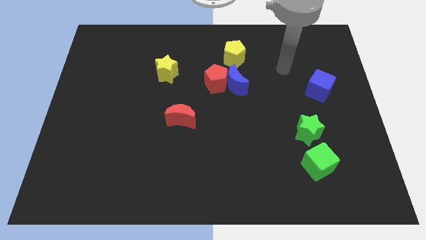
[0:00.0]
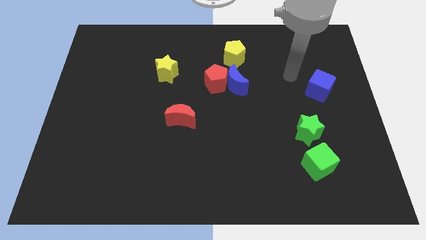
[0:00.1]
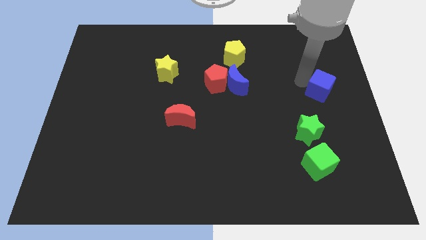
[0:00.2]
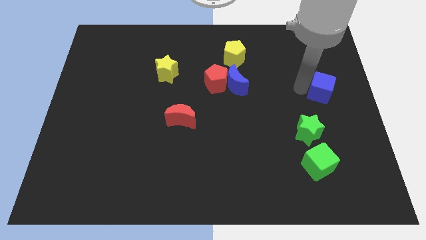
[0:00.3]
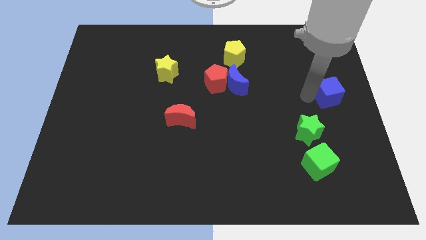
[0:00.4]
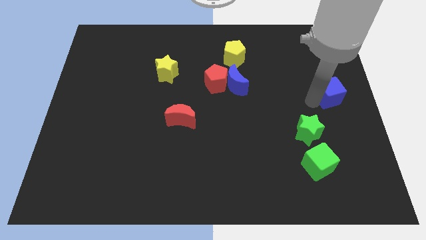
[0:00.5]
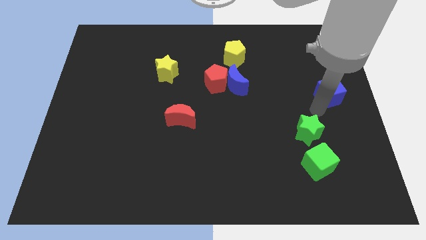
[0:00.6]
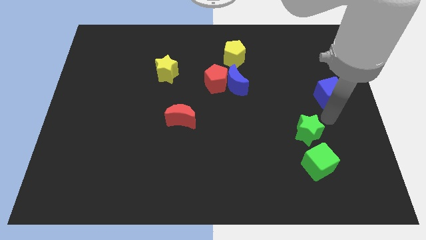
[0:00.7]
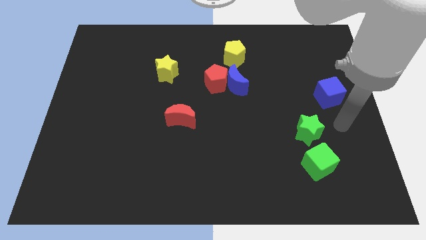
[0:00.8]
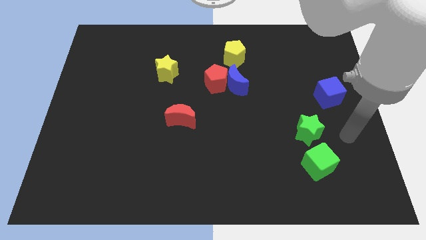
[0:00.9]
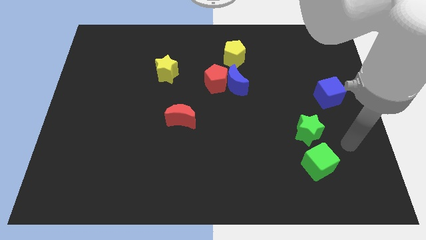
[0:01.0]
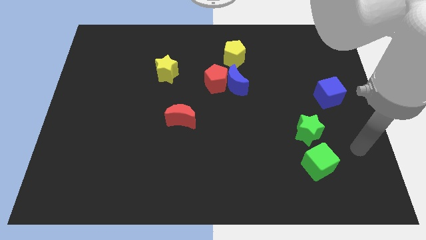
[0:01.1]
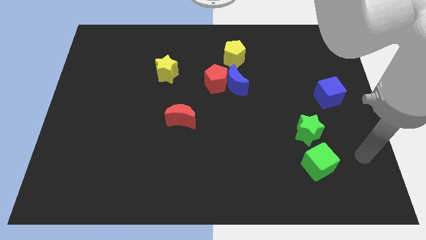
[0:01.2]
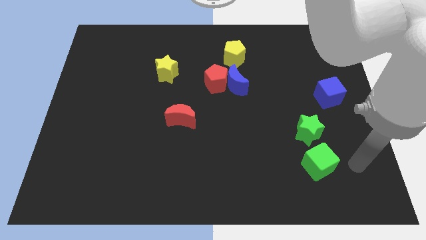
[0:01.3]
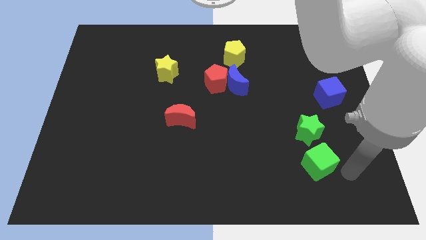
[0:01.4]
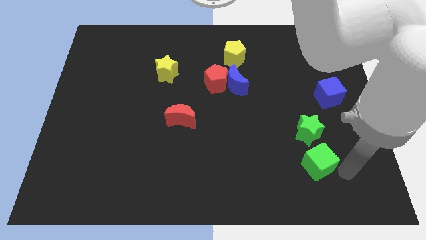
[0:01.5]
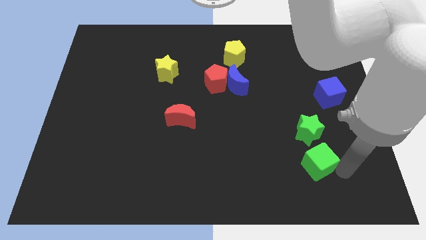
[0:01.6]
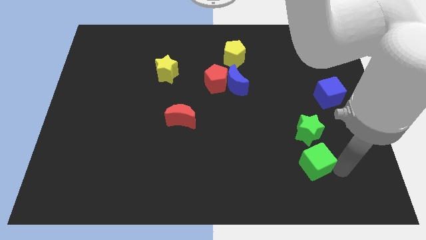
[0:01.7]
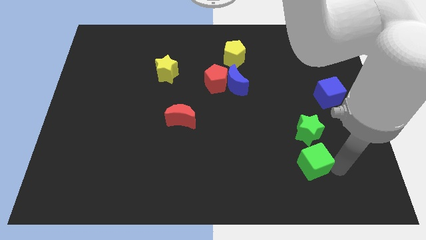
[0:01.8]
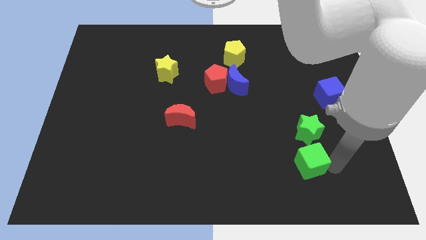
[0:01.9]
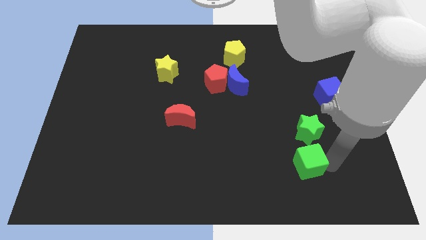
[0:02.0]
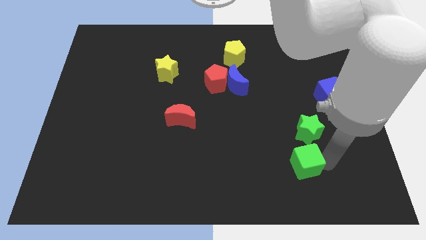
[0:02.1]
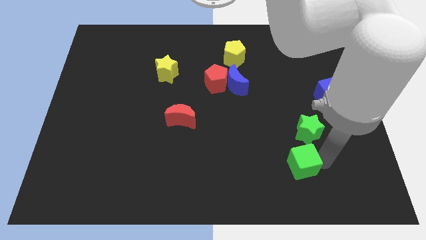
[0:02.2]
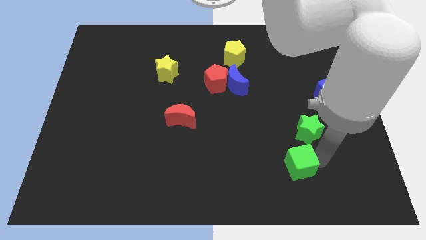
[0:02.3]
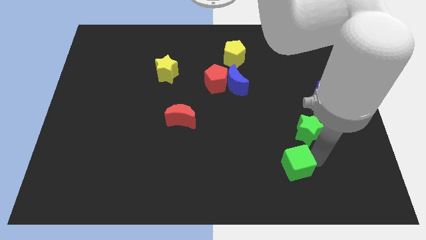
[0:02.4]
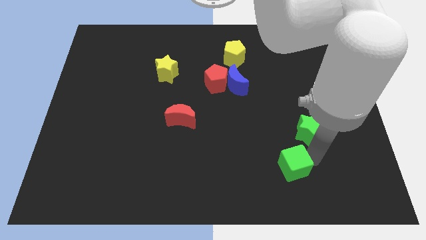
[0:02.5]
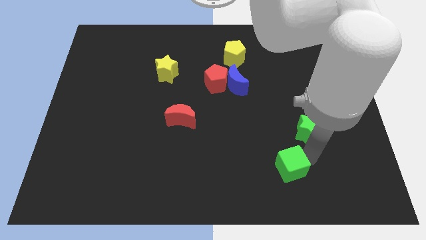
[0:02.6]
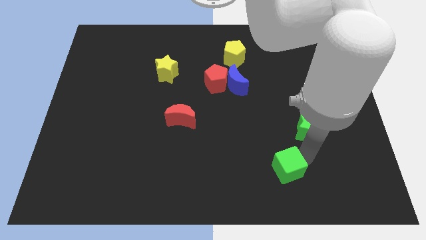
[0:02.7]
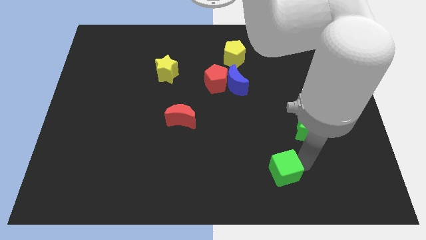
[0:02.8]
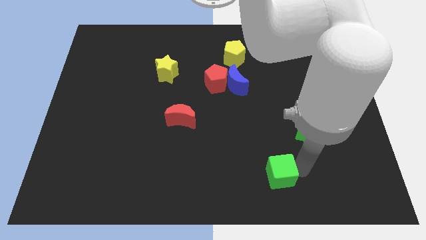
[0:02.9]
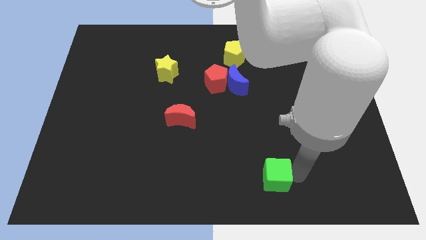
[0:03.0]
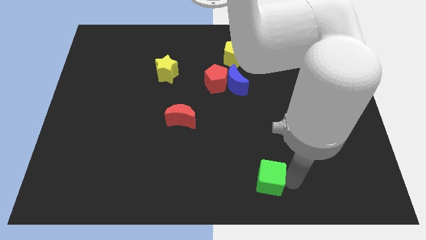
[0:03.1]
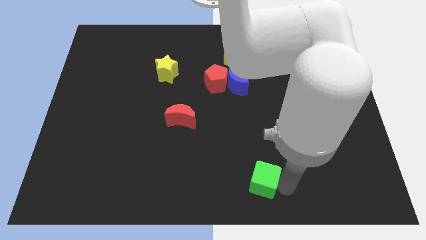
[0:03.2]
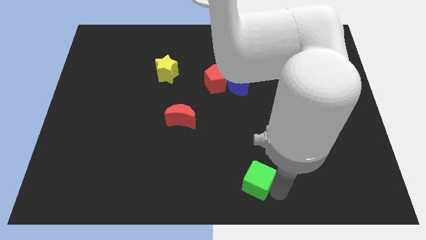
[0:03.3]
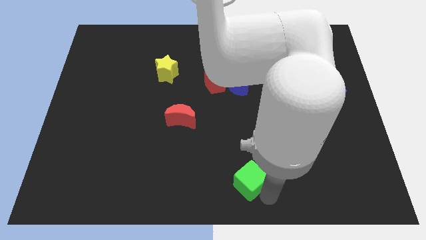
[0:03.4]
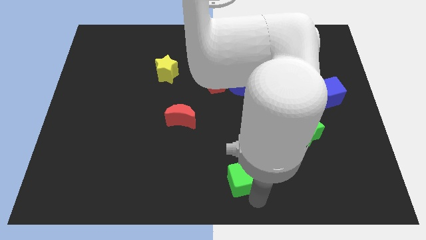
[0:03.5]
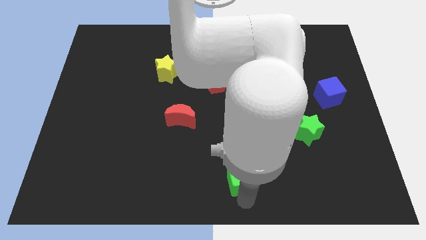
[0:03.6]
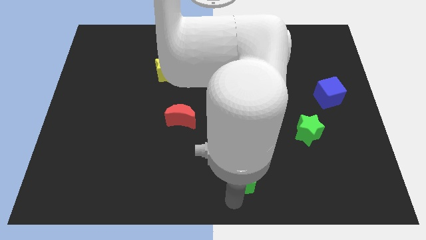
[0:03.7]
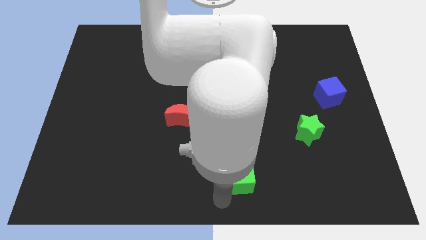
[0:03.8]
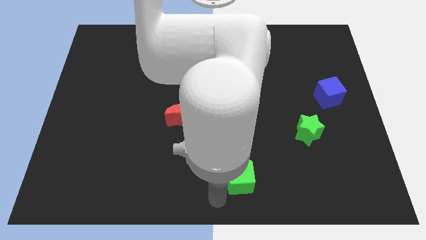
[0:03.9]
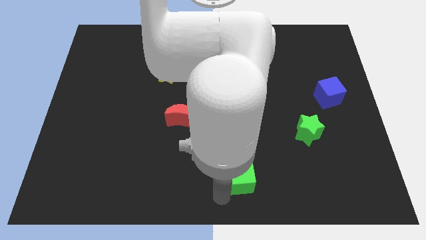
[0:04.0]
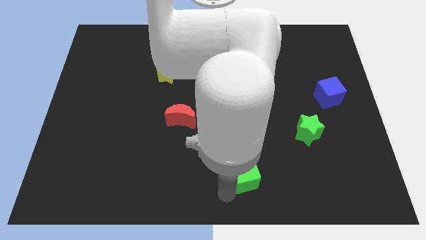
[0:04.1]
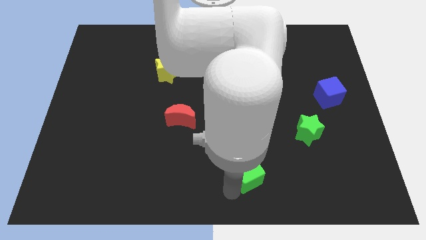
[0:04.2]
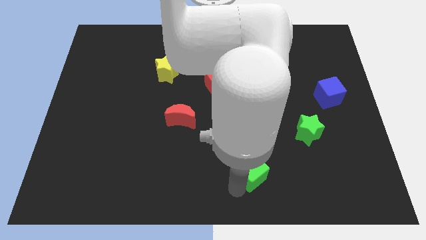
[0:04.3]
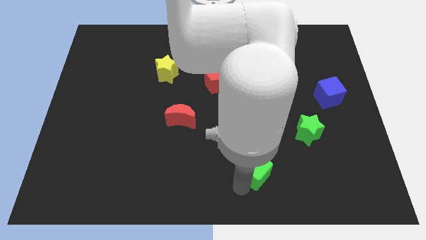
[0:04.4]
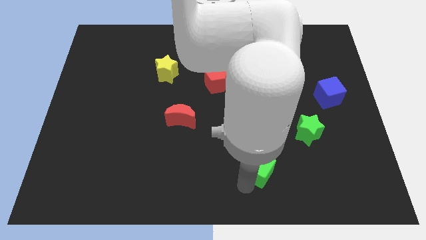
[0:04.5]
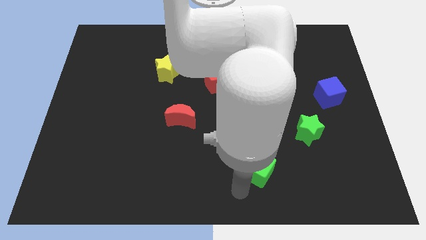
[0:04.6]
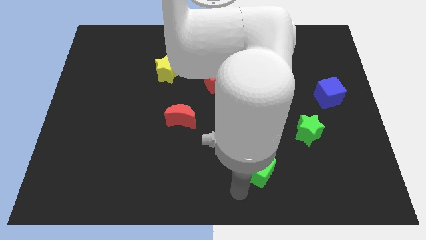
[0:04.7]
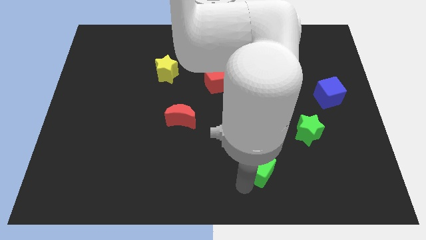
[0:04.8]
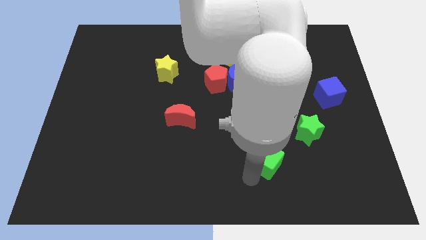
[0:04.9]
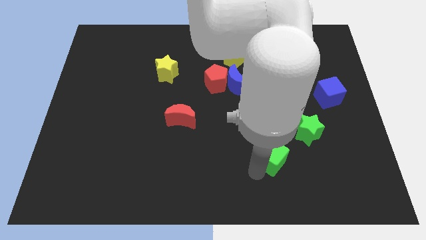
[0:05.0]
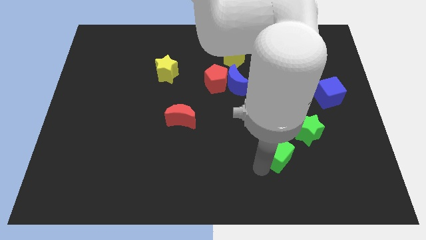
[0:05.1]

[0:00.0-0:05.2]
slide the green cube upwards and left diagonally a little

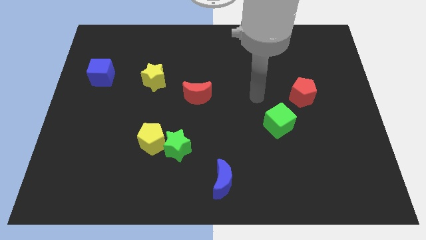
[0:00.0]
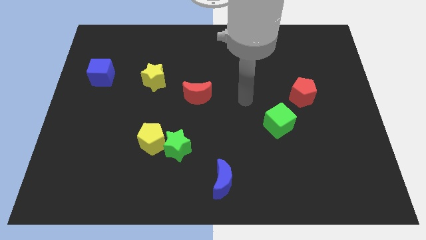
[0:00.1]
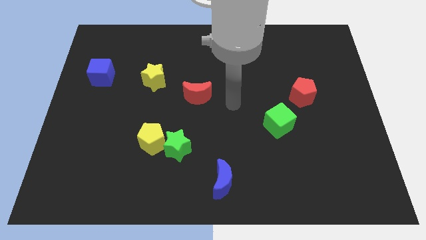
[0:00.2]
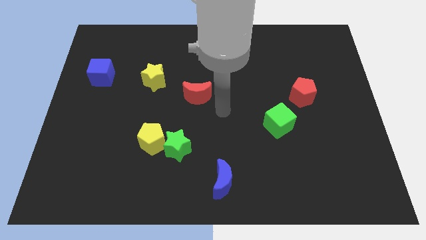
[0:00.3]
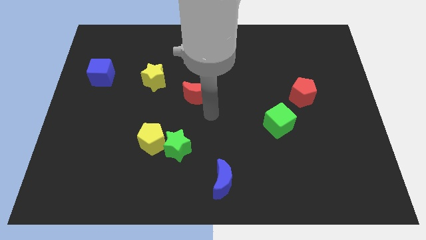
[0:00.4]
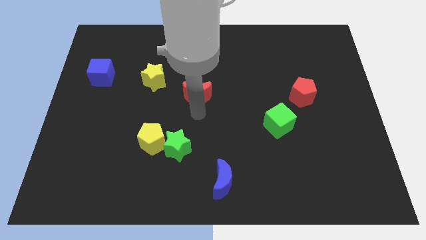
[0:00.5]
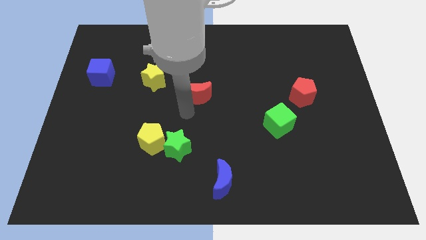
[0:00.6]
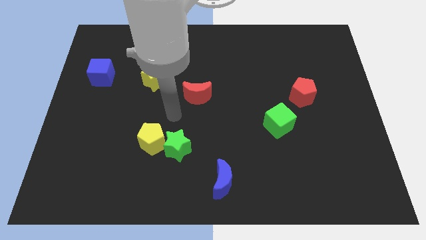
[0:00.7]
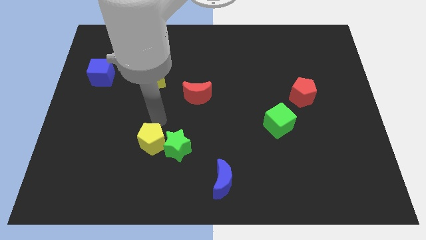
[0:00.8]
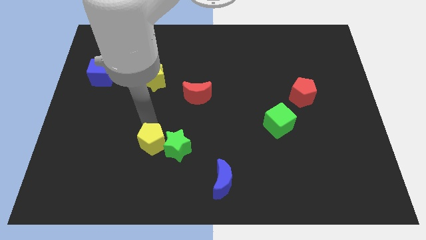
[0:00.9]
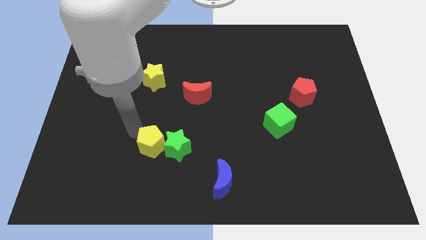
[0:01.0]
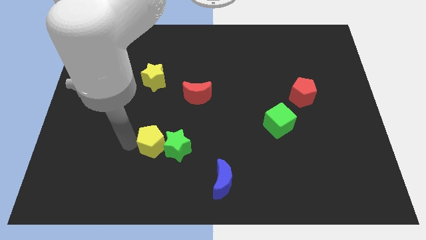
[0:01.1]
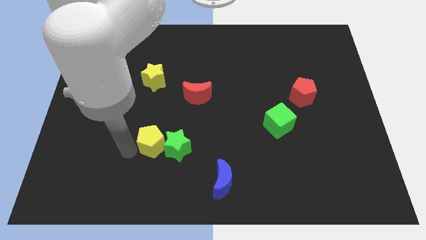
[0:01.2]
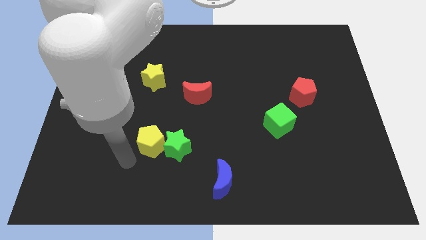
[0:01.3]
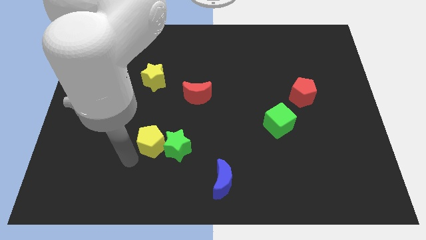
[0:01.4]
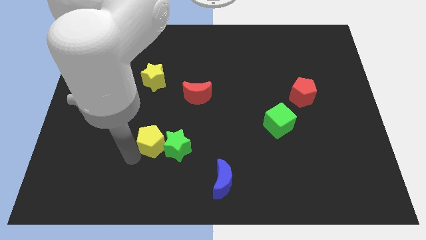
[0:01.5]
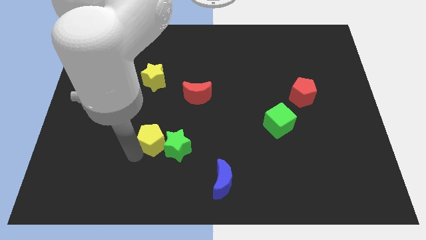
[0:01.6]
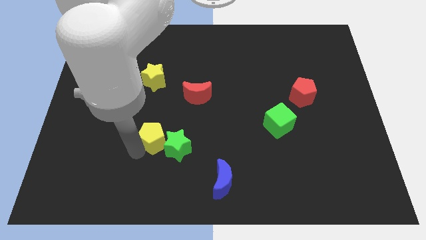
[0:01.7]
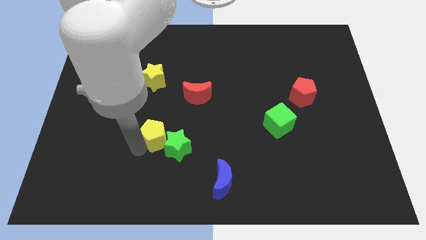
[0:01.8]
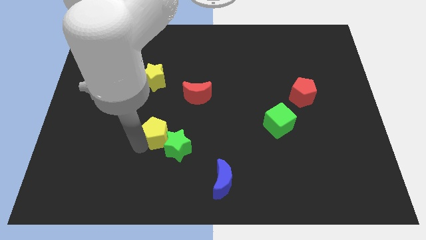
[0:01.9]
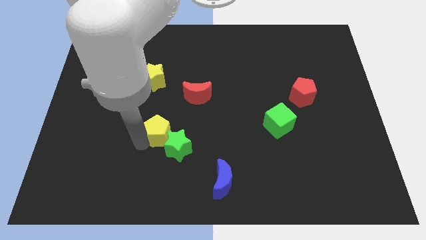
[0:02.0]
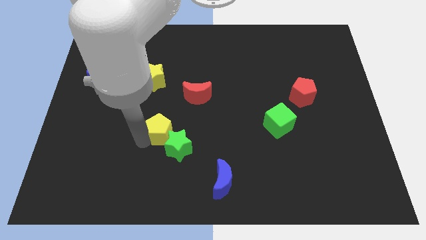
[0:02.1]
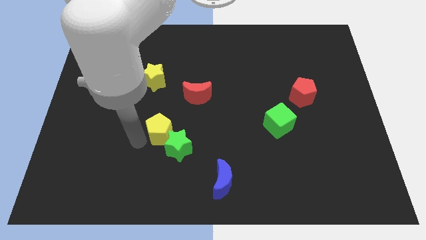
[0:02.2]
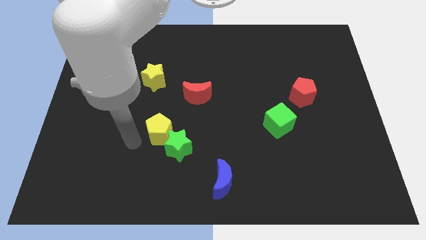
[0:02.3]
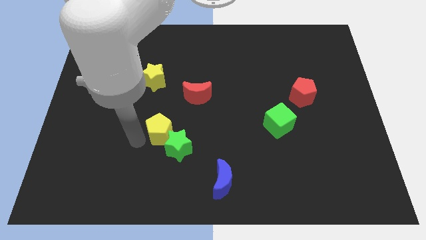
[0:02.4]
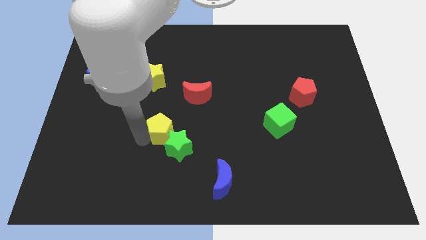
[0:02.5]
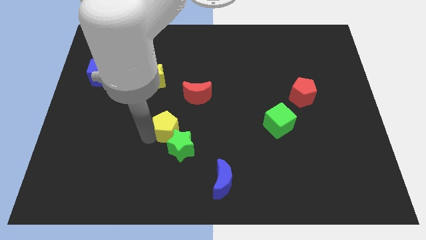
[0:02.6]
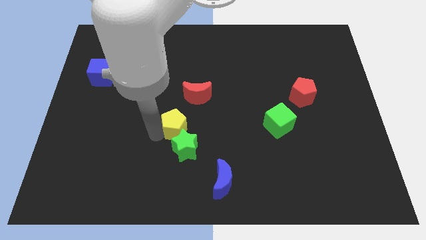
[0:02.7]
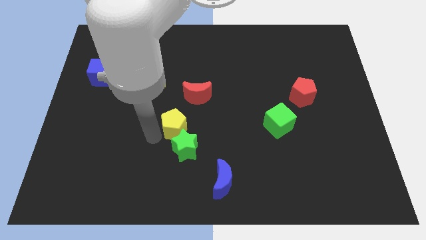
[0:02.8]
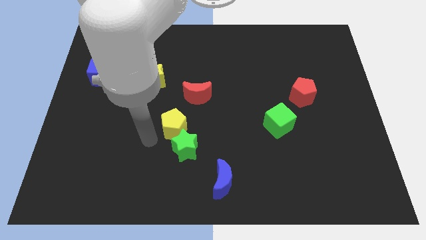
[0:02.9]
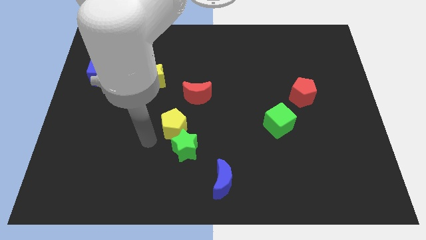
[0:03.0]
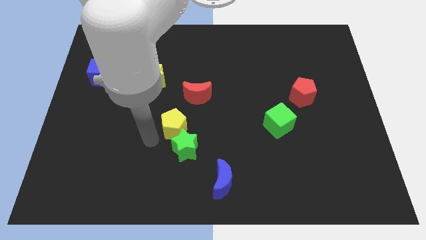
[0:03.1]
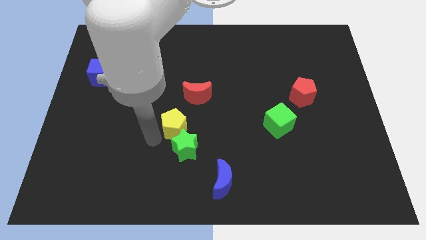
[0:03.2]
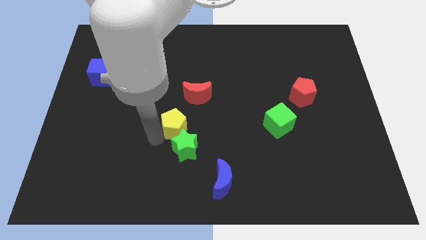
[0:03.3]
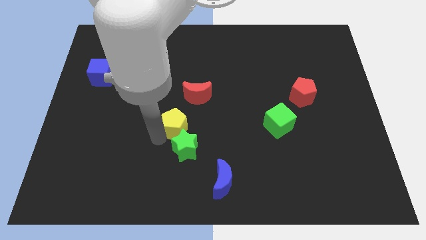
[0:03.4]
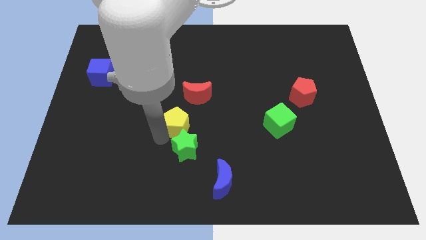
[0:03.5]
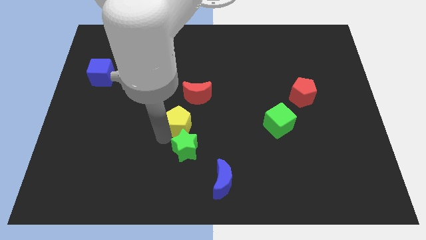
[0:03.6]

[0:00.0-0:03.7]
slightly slide the yellow pentagon diagonally upwards and to the right
